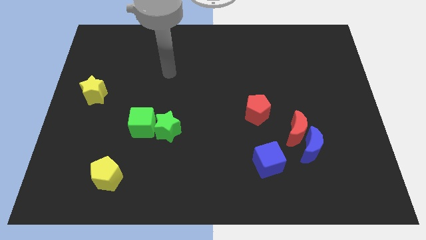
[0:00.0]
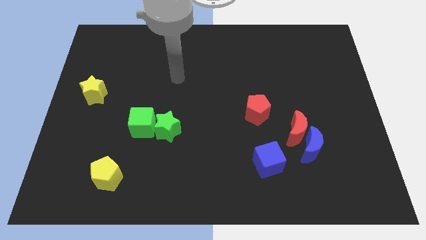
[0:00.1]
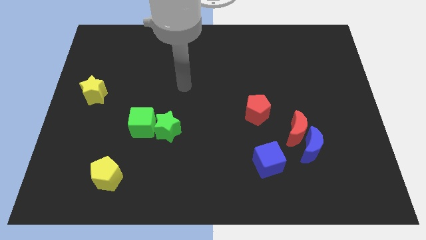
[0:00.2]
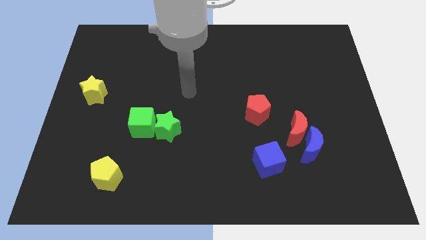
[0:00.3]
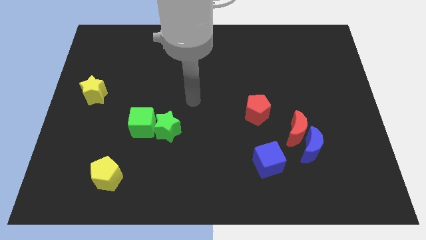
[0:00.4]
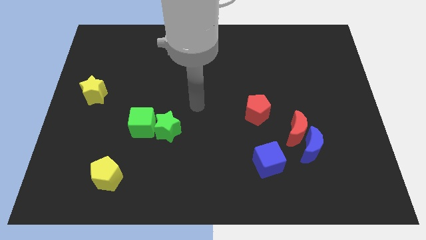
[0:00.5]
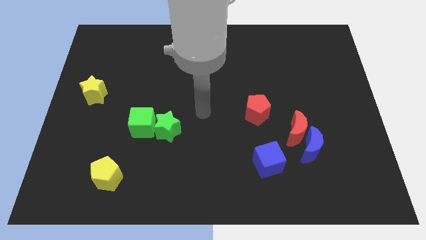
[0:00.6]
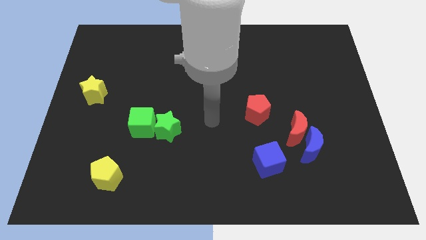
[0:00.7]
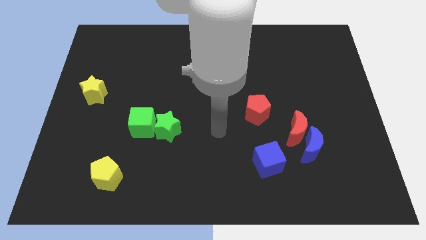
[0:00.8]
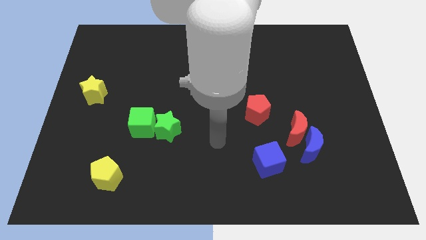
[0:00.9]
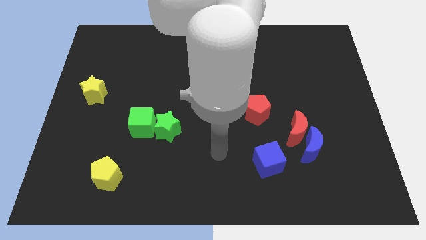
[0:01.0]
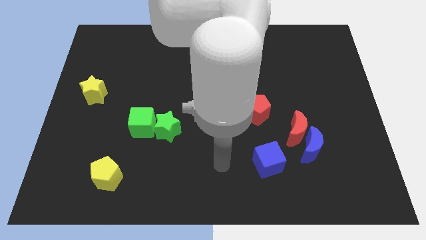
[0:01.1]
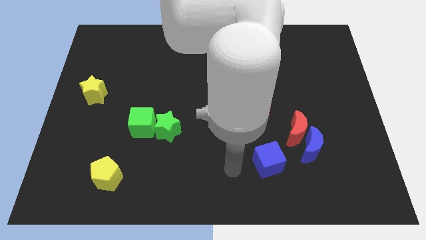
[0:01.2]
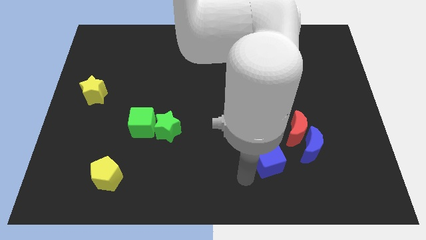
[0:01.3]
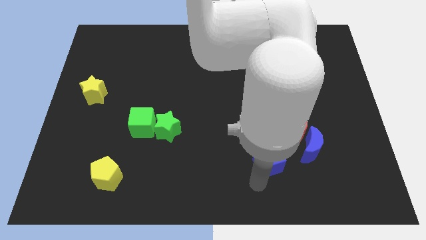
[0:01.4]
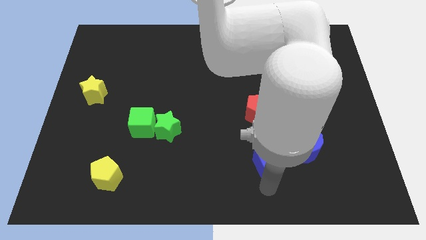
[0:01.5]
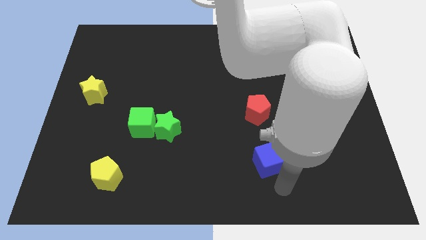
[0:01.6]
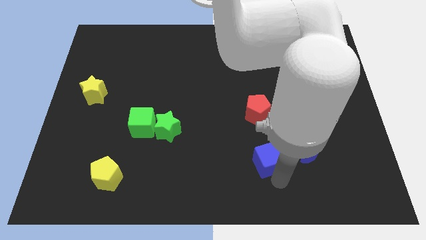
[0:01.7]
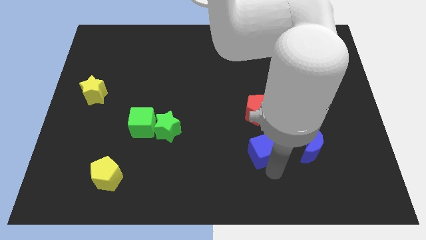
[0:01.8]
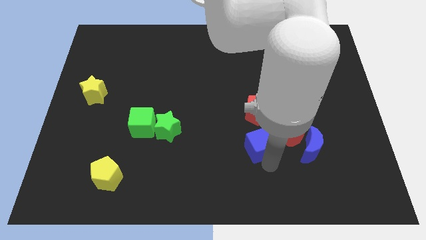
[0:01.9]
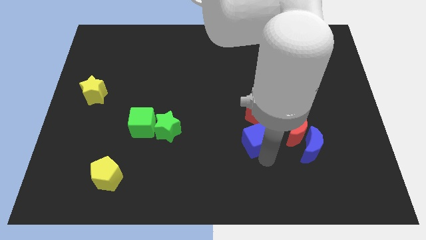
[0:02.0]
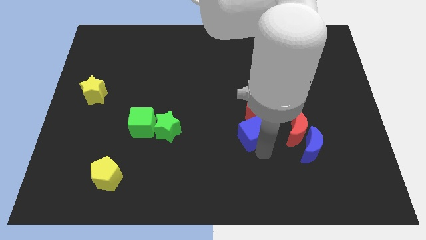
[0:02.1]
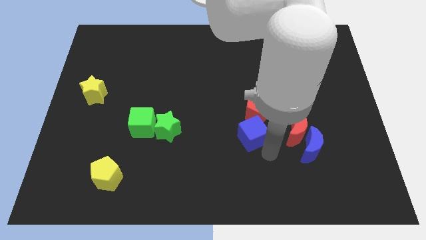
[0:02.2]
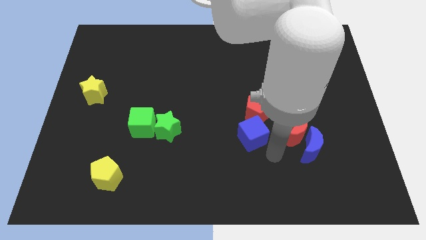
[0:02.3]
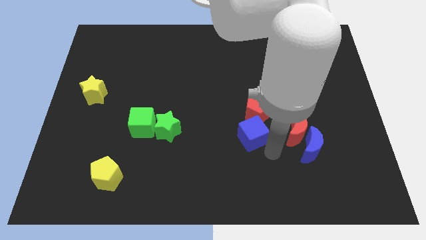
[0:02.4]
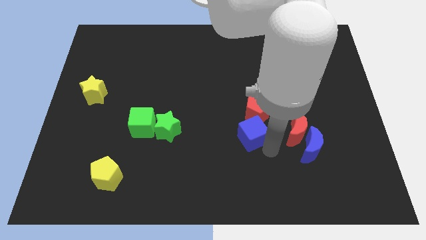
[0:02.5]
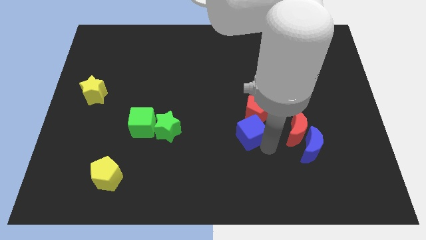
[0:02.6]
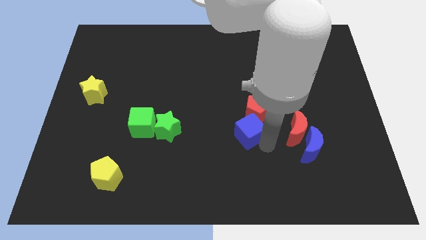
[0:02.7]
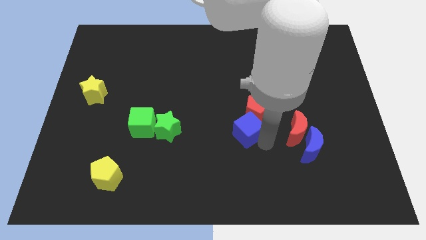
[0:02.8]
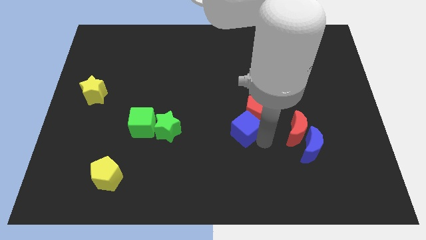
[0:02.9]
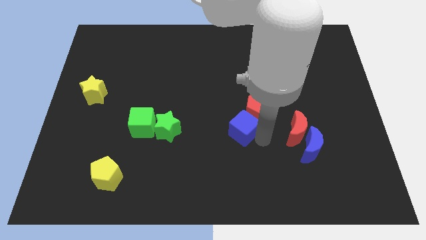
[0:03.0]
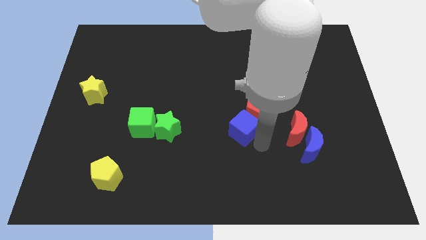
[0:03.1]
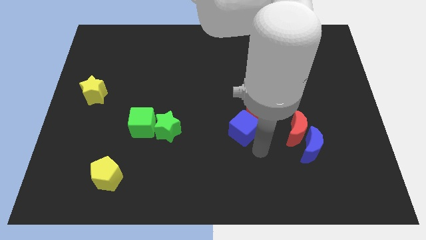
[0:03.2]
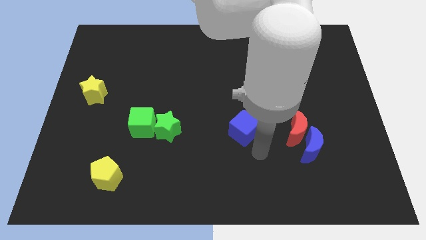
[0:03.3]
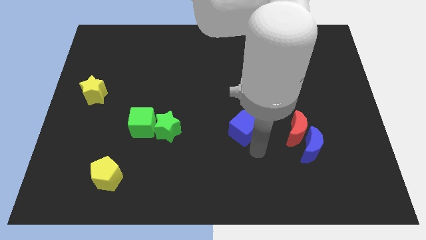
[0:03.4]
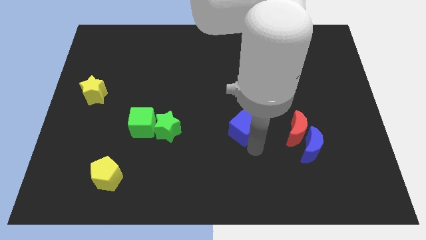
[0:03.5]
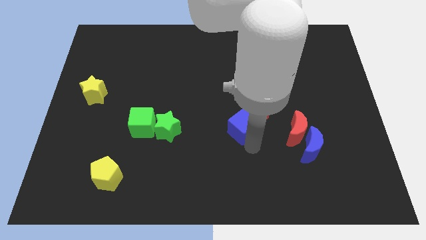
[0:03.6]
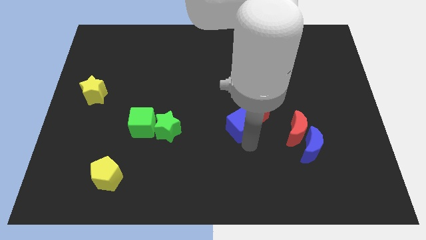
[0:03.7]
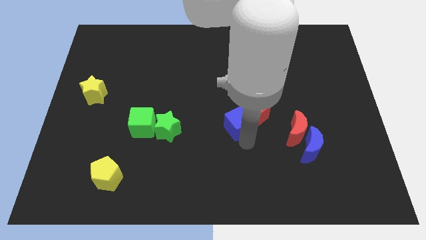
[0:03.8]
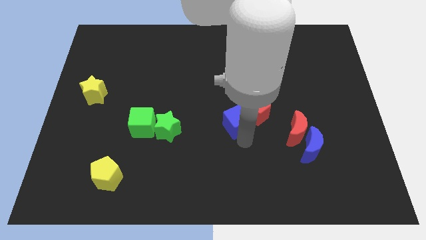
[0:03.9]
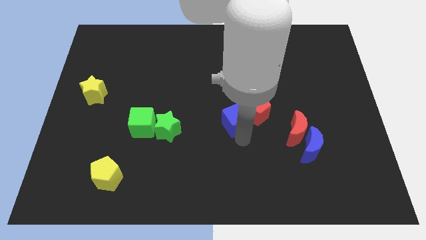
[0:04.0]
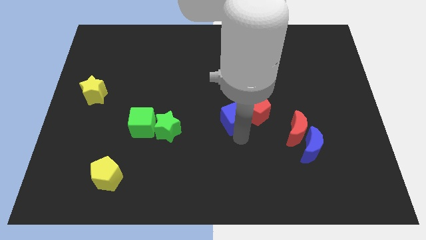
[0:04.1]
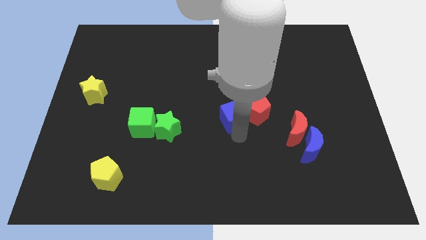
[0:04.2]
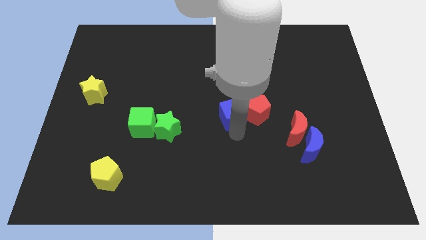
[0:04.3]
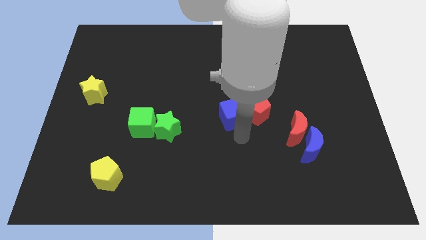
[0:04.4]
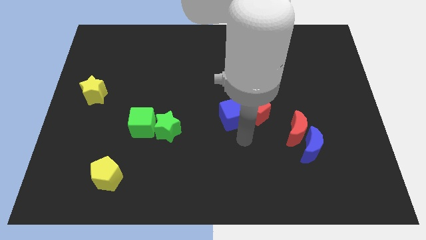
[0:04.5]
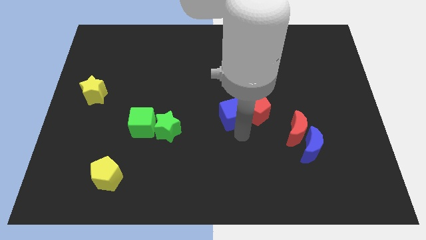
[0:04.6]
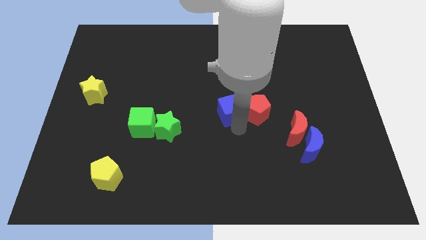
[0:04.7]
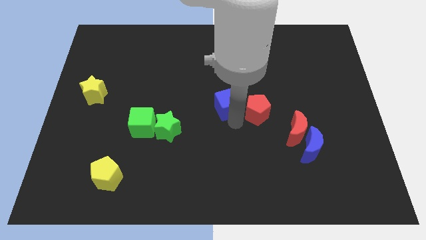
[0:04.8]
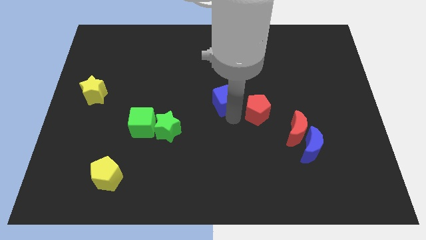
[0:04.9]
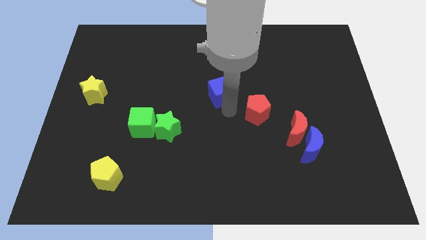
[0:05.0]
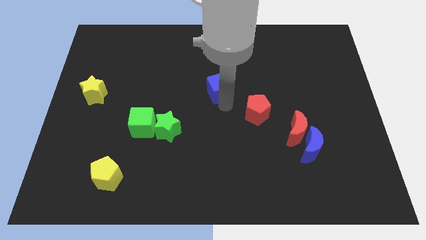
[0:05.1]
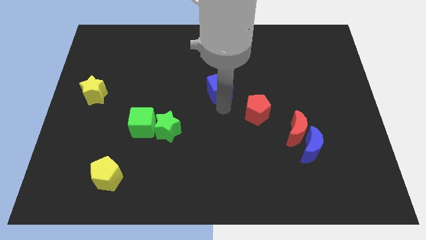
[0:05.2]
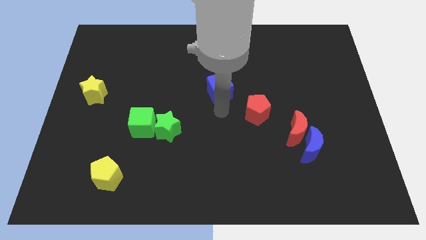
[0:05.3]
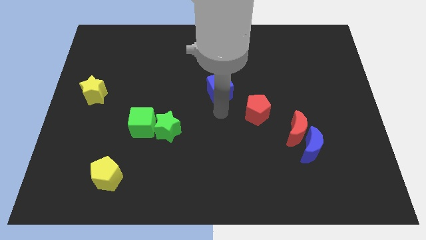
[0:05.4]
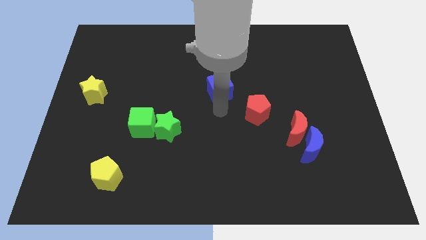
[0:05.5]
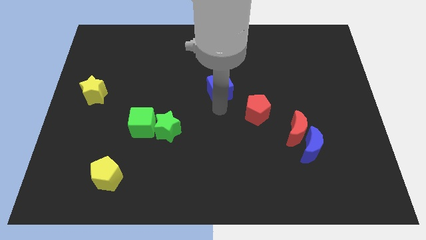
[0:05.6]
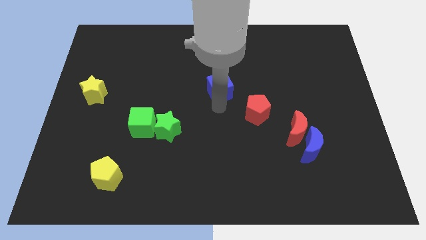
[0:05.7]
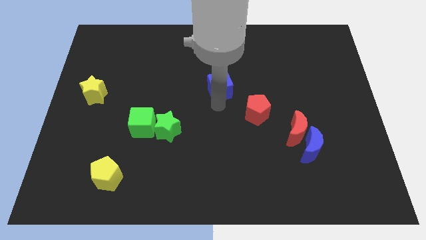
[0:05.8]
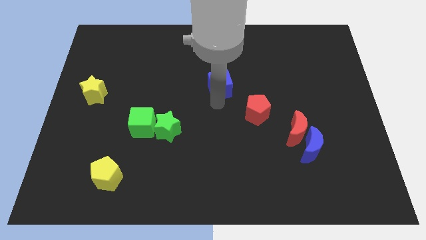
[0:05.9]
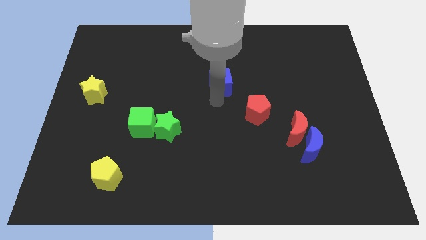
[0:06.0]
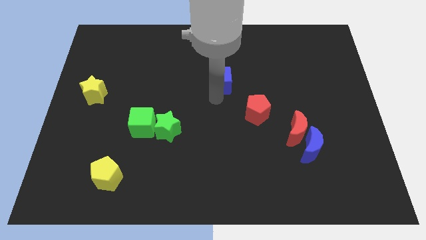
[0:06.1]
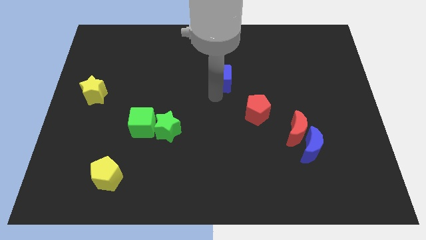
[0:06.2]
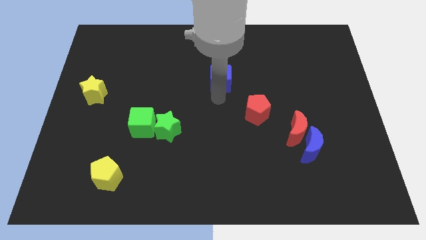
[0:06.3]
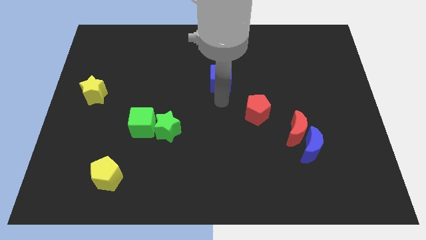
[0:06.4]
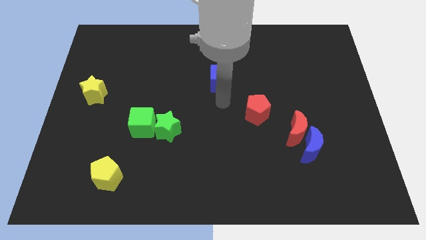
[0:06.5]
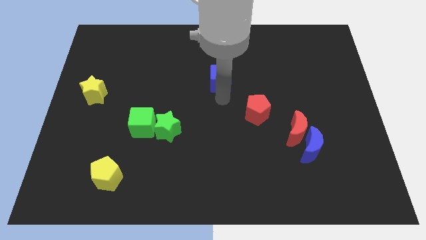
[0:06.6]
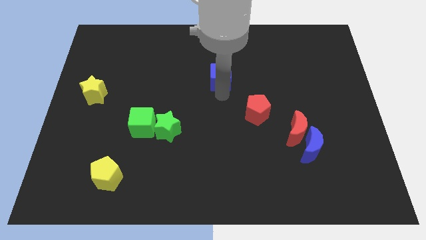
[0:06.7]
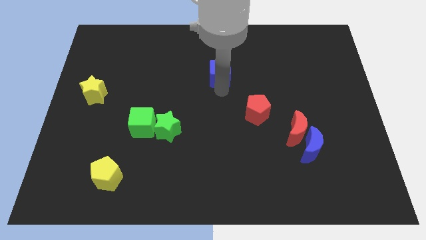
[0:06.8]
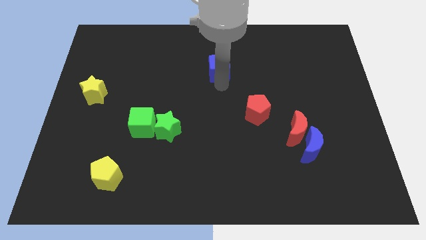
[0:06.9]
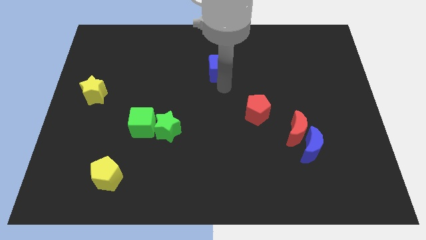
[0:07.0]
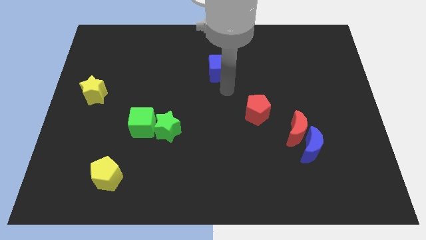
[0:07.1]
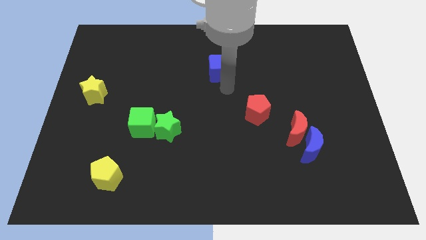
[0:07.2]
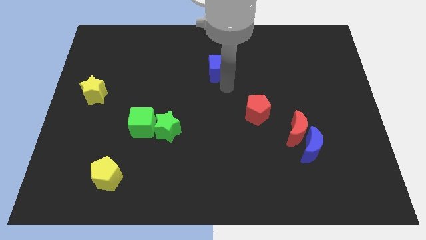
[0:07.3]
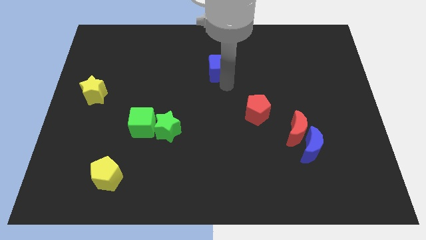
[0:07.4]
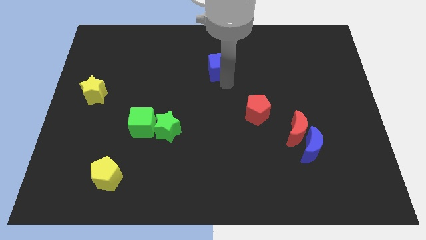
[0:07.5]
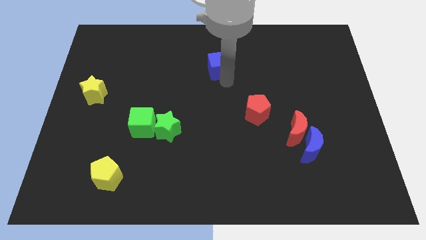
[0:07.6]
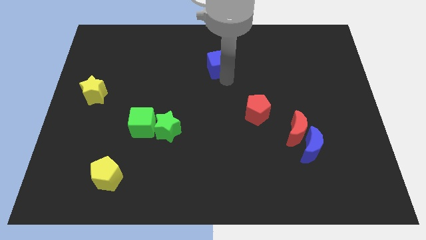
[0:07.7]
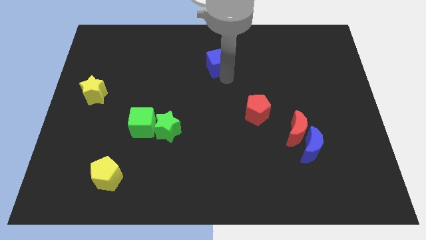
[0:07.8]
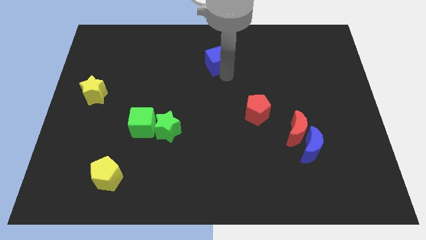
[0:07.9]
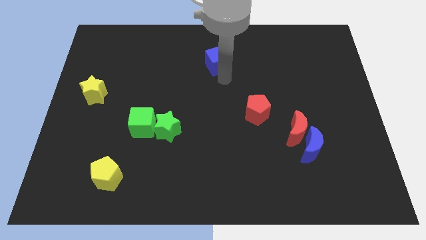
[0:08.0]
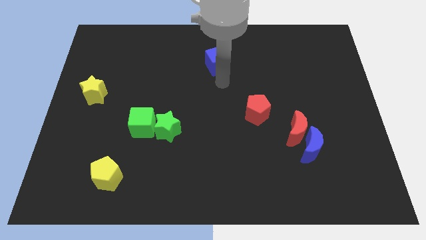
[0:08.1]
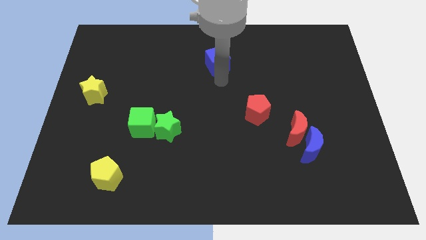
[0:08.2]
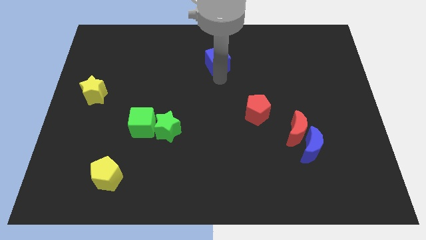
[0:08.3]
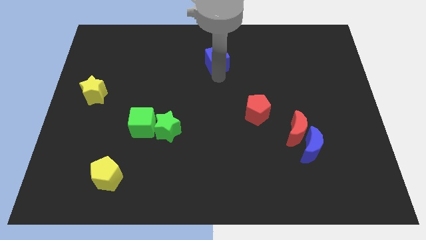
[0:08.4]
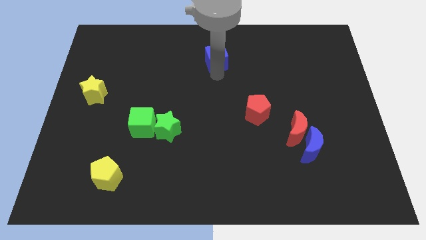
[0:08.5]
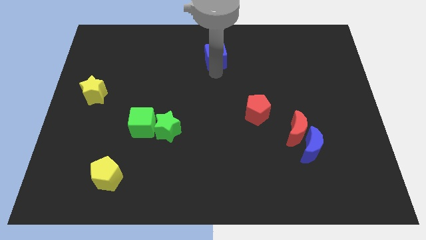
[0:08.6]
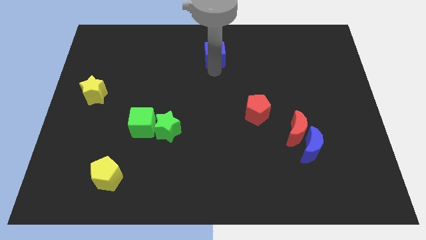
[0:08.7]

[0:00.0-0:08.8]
put the blue cube to the top side
